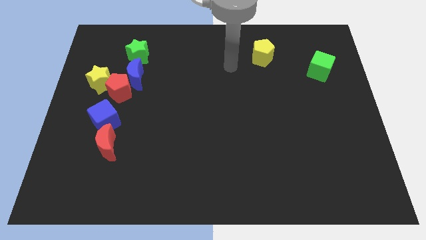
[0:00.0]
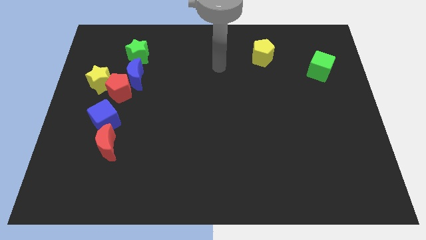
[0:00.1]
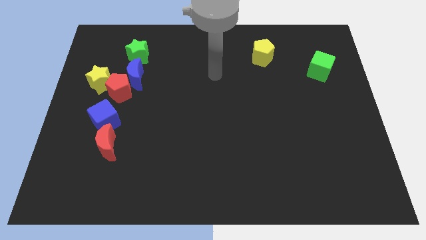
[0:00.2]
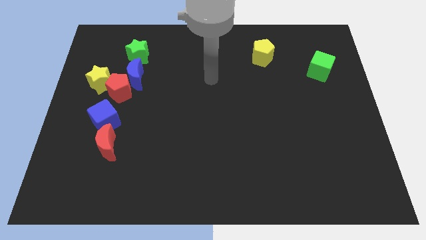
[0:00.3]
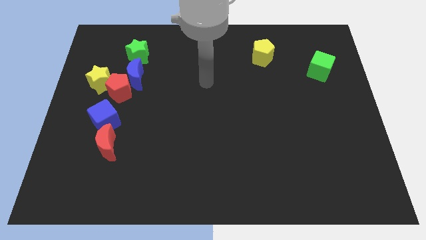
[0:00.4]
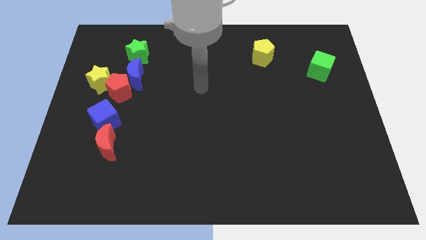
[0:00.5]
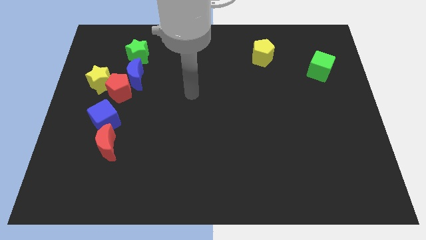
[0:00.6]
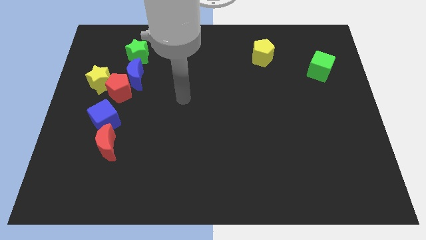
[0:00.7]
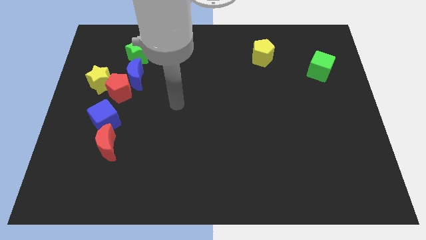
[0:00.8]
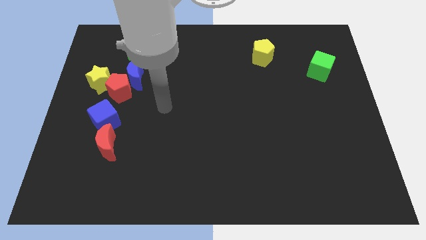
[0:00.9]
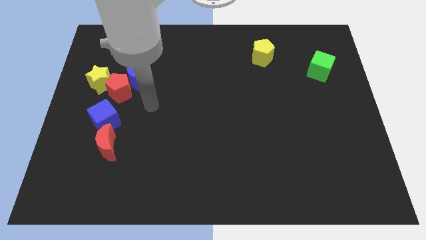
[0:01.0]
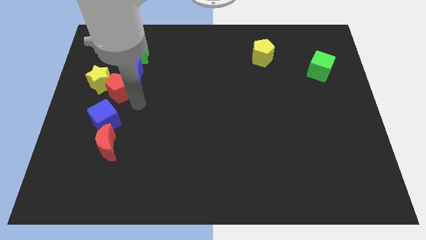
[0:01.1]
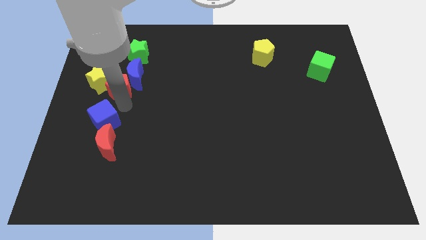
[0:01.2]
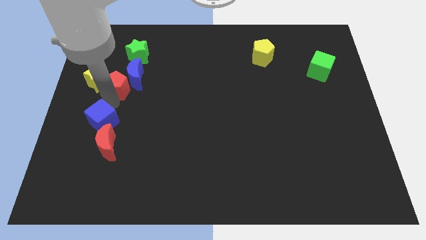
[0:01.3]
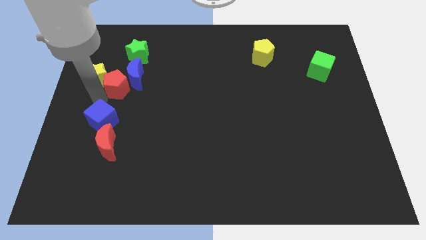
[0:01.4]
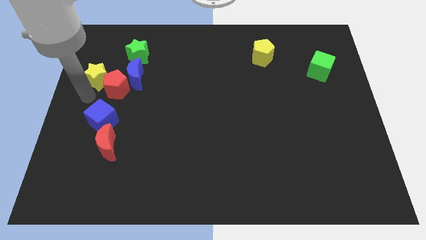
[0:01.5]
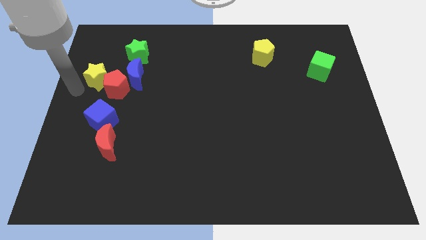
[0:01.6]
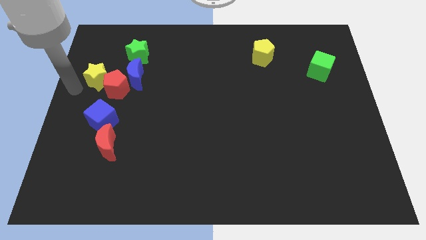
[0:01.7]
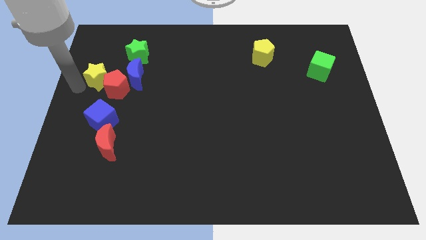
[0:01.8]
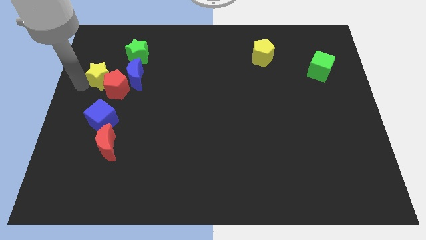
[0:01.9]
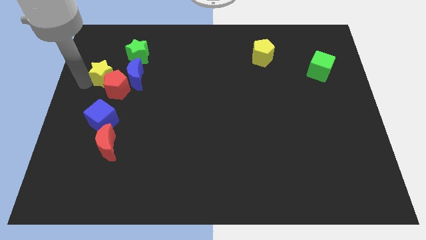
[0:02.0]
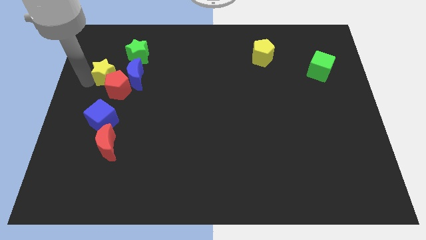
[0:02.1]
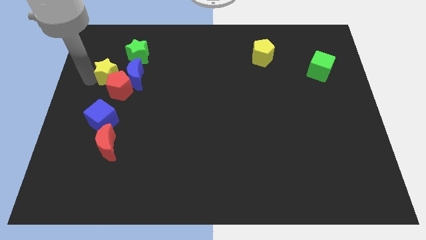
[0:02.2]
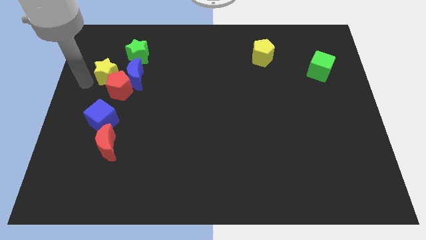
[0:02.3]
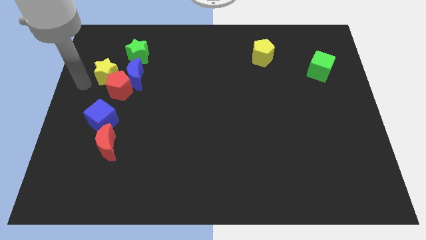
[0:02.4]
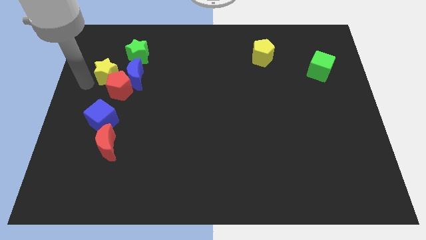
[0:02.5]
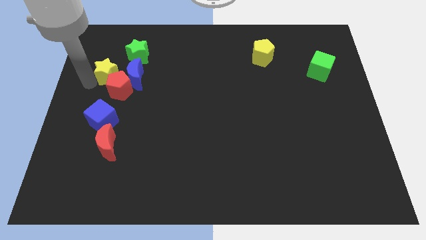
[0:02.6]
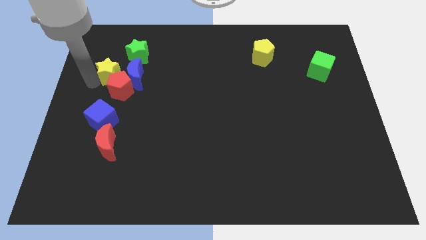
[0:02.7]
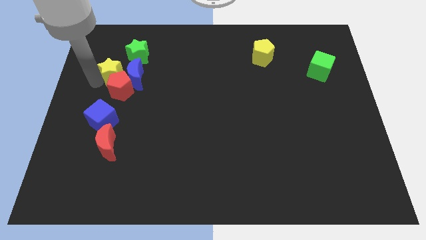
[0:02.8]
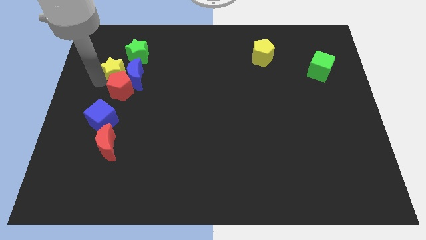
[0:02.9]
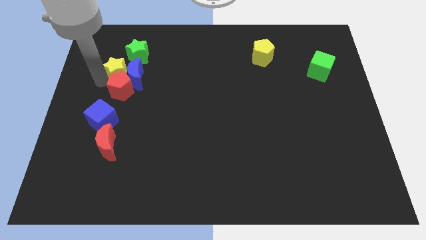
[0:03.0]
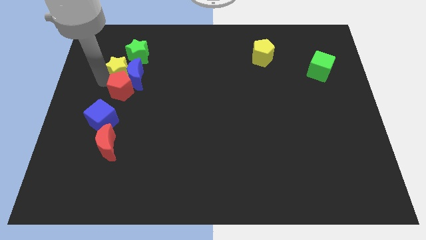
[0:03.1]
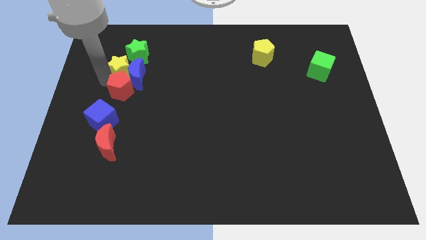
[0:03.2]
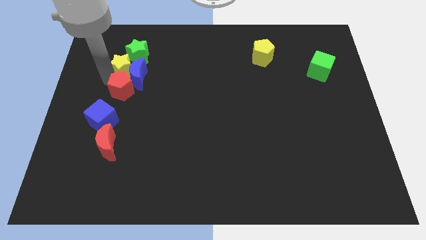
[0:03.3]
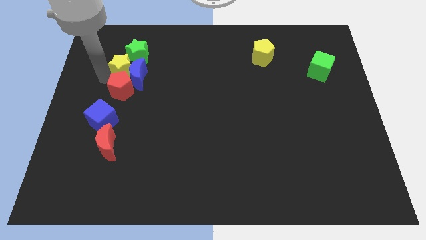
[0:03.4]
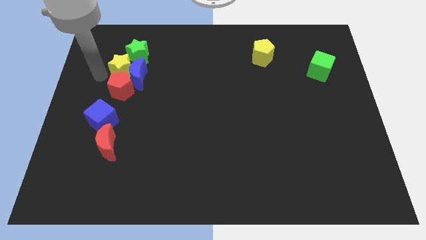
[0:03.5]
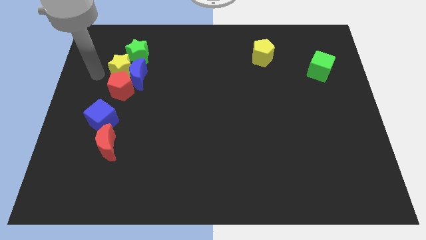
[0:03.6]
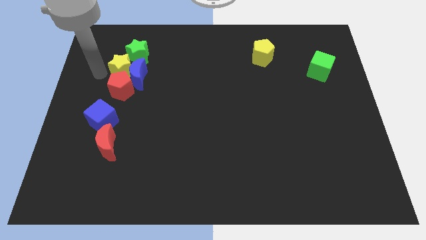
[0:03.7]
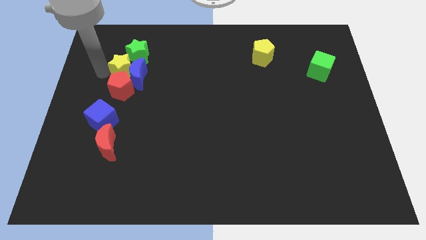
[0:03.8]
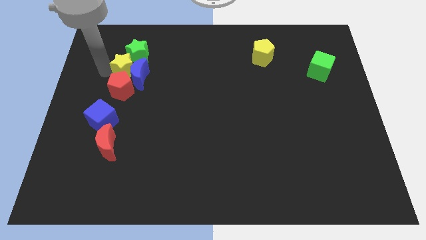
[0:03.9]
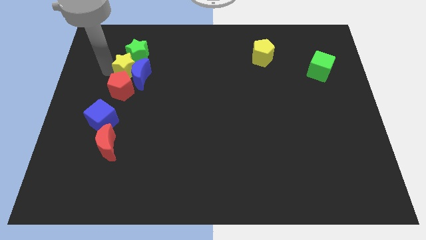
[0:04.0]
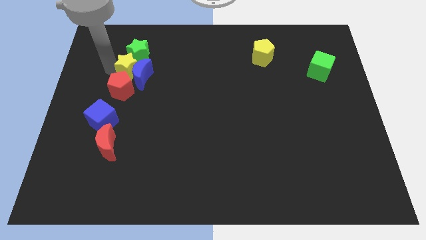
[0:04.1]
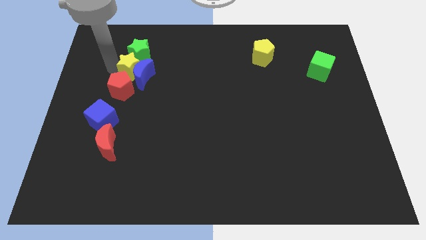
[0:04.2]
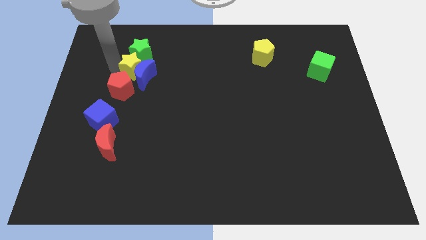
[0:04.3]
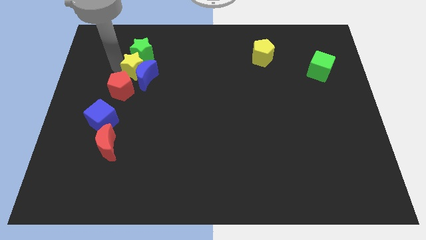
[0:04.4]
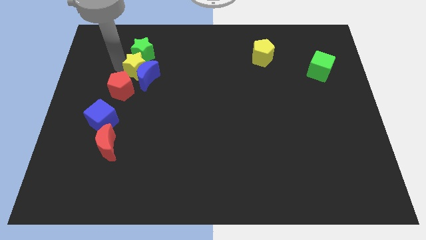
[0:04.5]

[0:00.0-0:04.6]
push the yellow star somewhat right

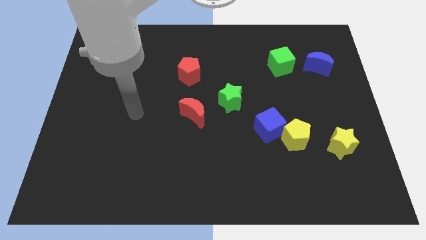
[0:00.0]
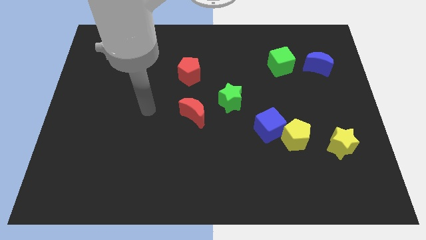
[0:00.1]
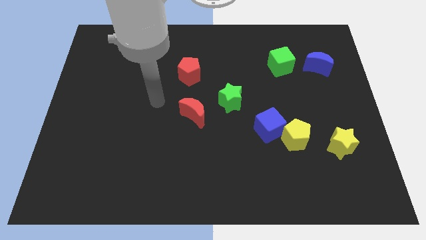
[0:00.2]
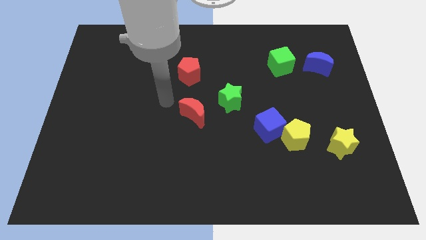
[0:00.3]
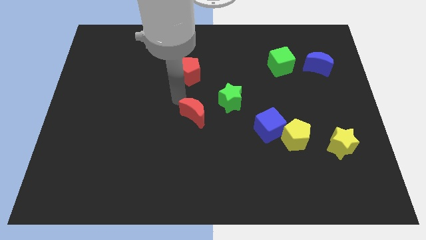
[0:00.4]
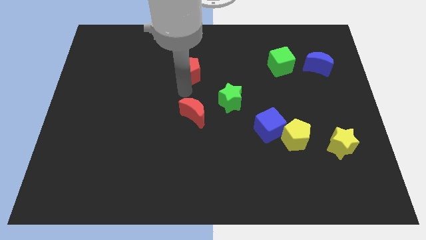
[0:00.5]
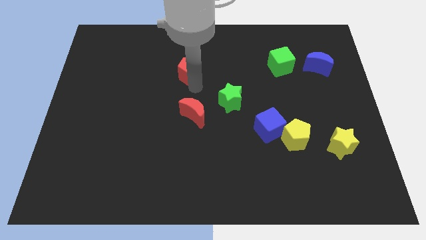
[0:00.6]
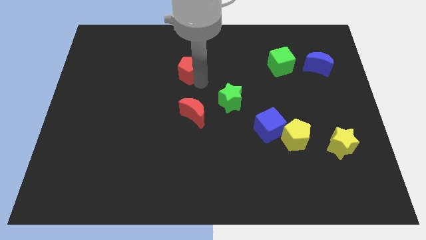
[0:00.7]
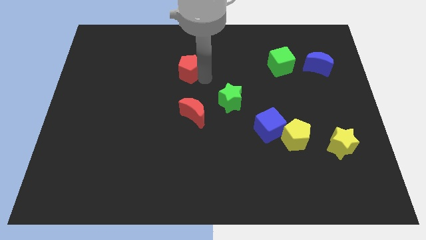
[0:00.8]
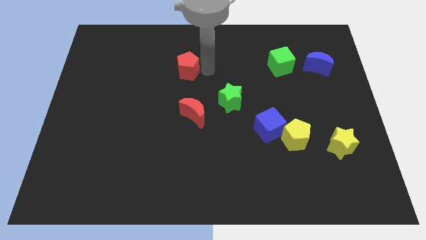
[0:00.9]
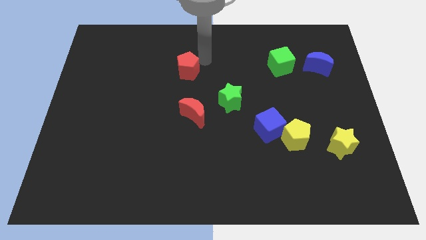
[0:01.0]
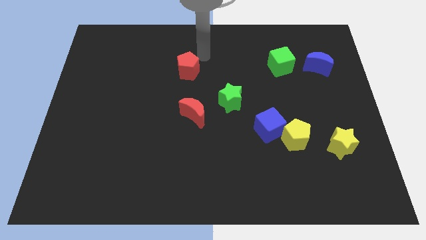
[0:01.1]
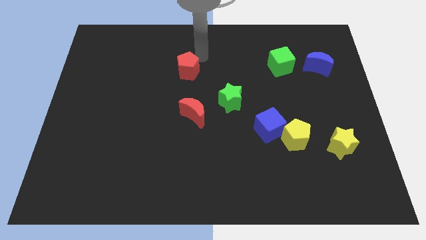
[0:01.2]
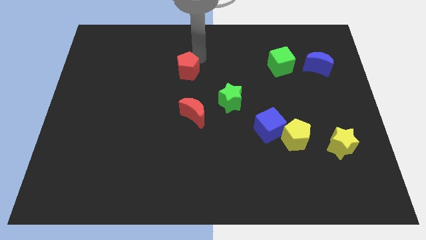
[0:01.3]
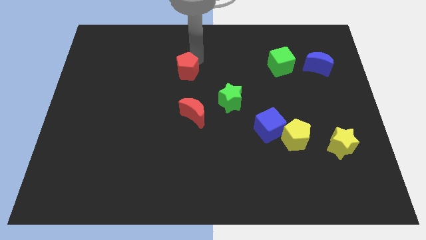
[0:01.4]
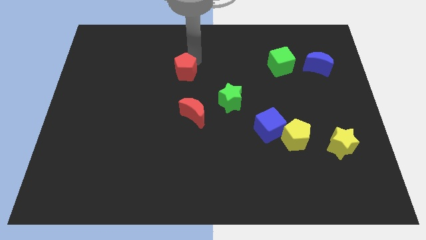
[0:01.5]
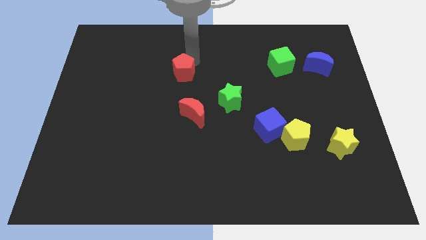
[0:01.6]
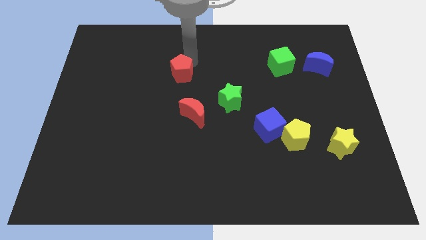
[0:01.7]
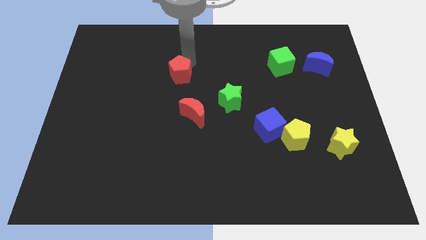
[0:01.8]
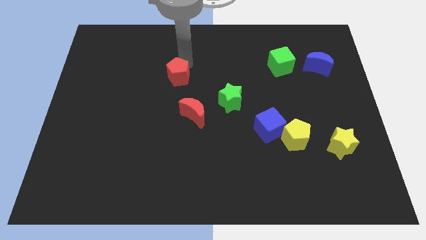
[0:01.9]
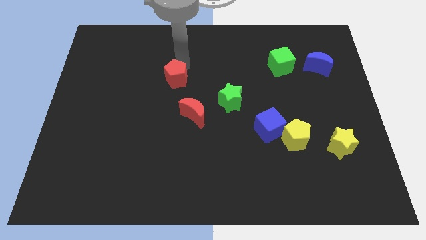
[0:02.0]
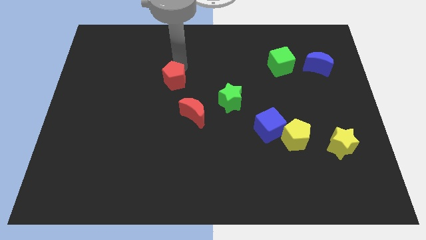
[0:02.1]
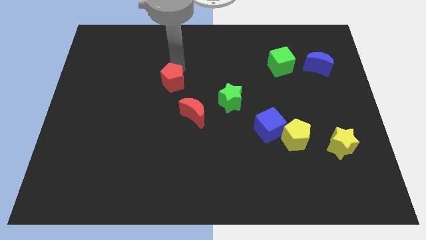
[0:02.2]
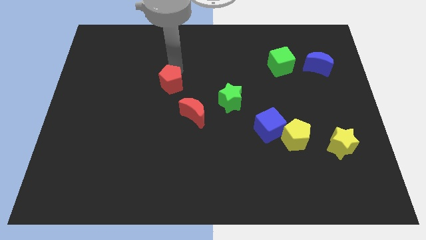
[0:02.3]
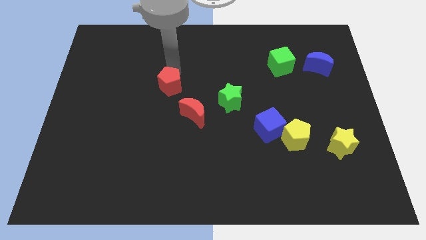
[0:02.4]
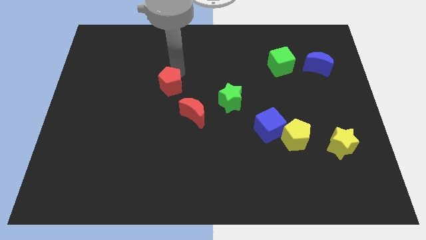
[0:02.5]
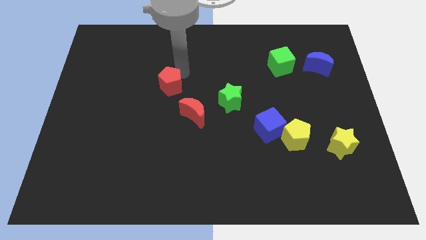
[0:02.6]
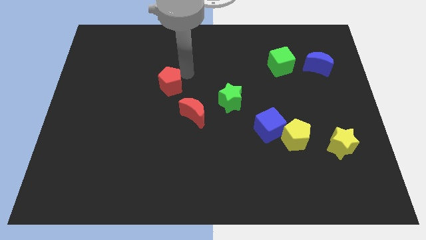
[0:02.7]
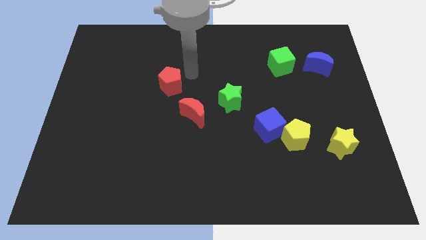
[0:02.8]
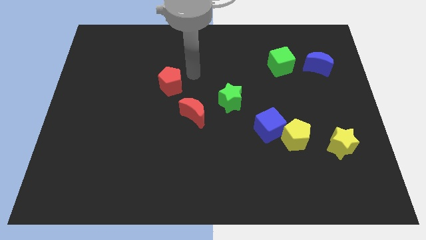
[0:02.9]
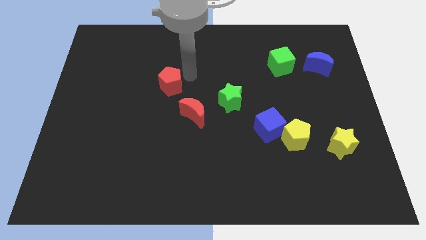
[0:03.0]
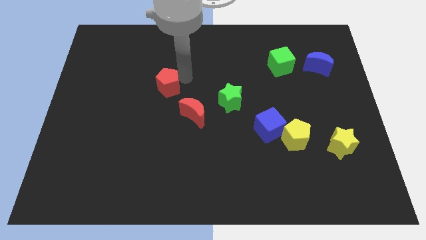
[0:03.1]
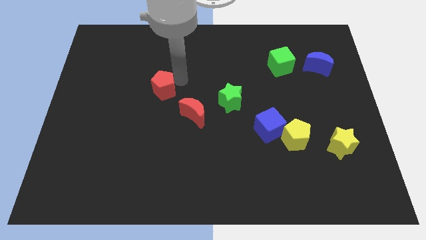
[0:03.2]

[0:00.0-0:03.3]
push the red pentagon diagonally down and to the left a little
